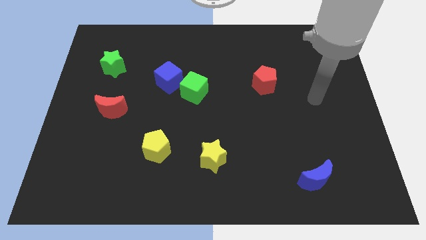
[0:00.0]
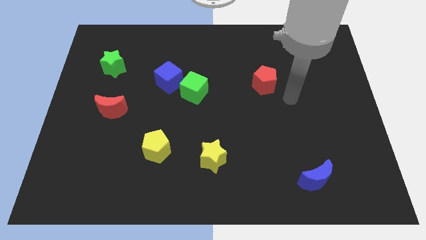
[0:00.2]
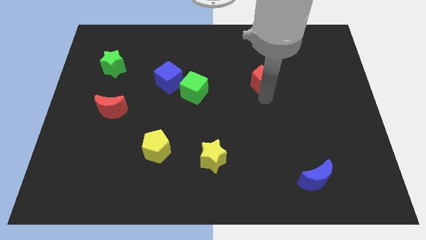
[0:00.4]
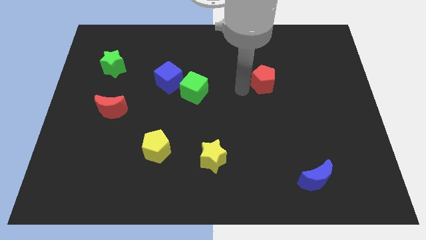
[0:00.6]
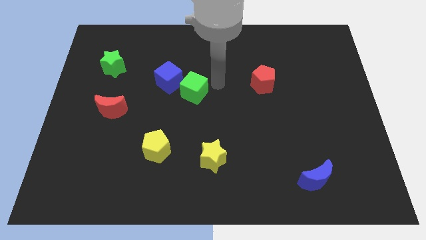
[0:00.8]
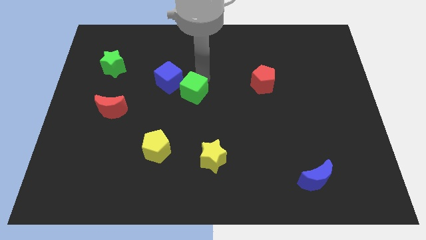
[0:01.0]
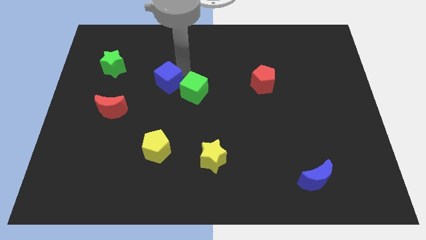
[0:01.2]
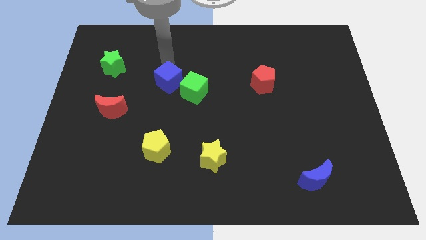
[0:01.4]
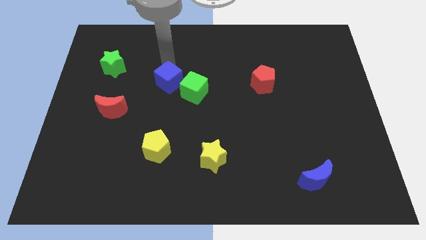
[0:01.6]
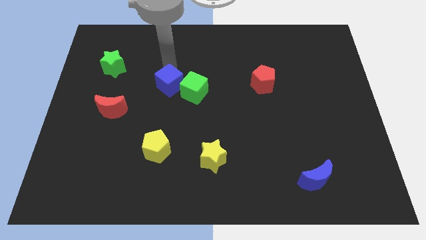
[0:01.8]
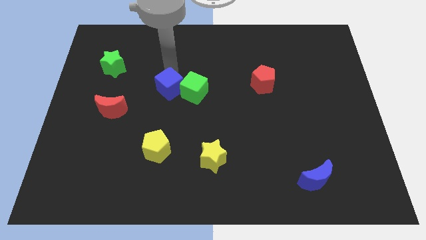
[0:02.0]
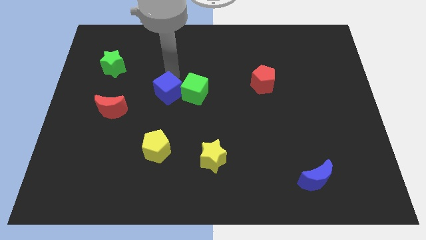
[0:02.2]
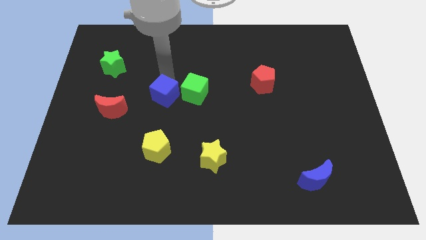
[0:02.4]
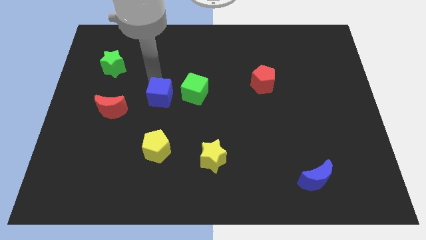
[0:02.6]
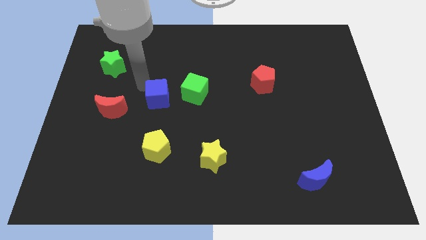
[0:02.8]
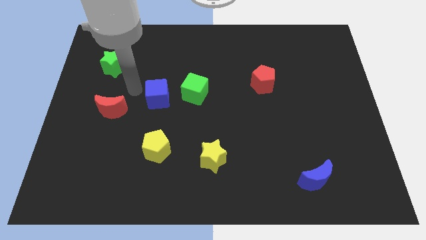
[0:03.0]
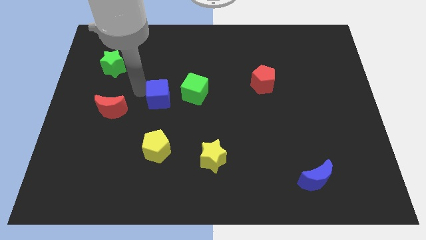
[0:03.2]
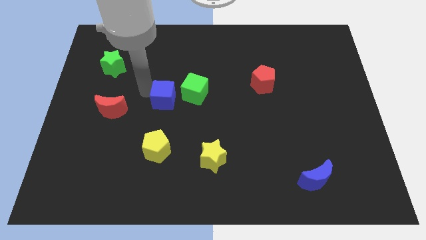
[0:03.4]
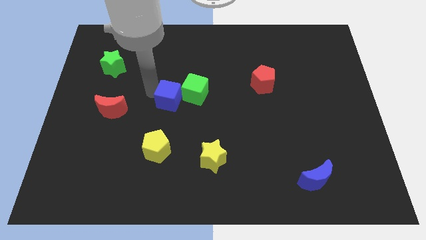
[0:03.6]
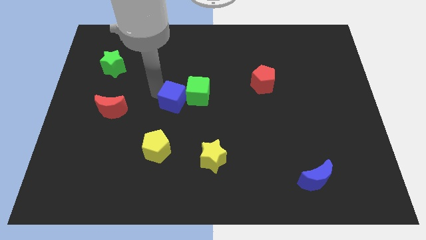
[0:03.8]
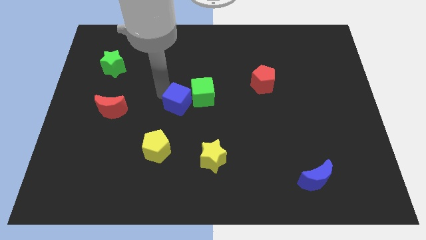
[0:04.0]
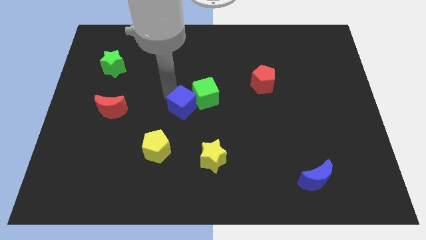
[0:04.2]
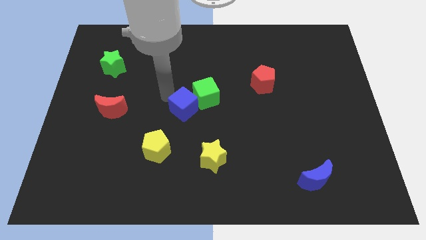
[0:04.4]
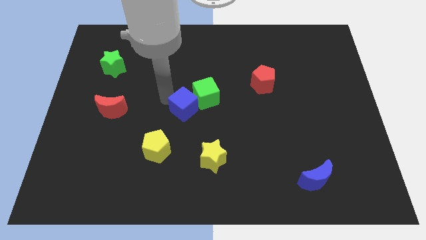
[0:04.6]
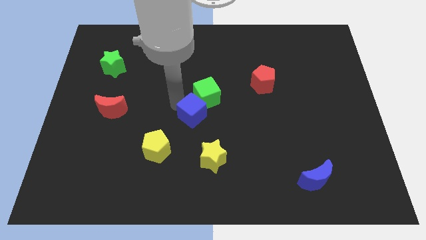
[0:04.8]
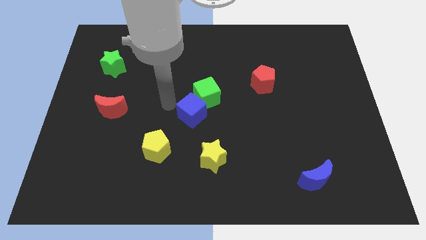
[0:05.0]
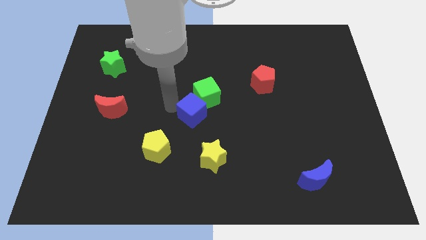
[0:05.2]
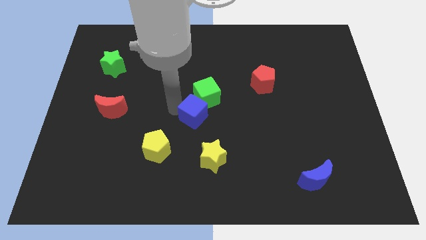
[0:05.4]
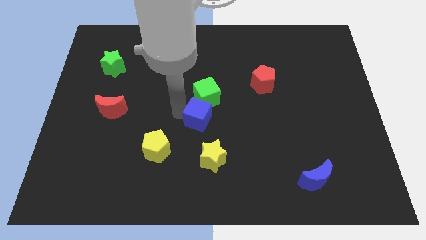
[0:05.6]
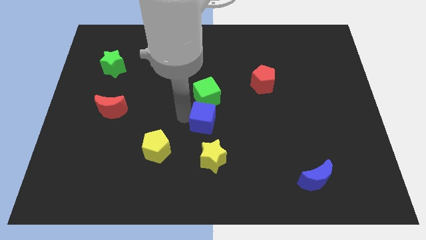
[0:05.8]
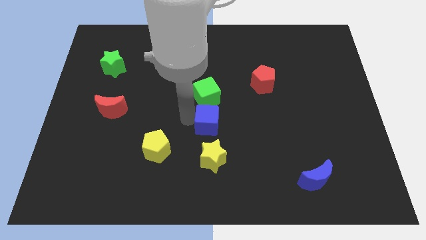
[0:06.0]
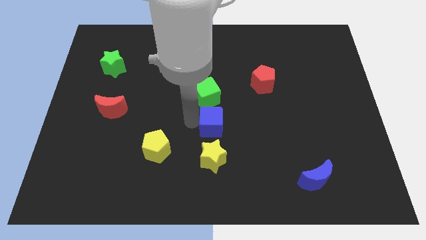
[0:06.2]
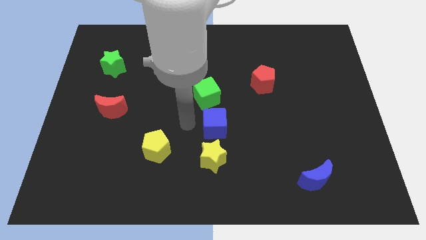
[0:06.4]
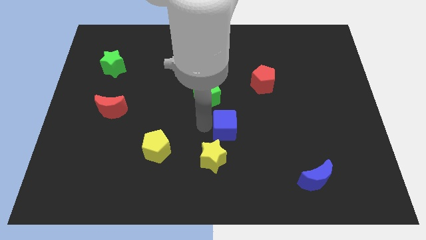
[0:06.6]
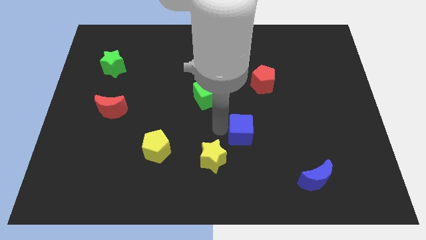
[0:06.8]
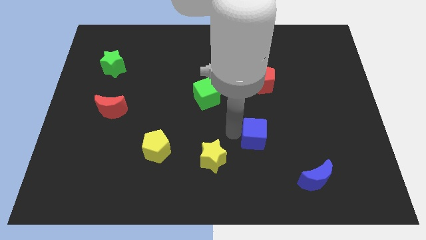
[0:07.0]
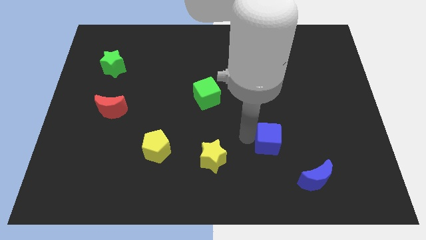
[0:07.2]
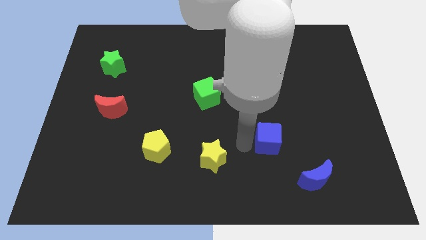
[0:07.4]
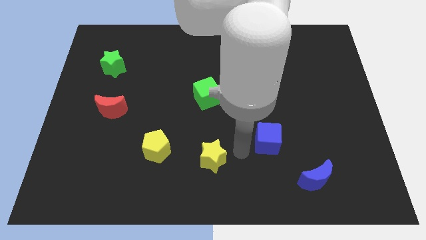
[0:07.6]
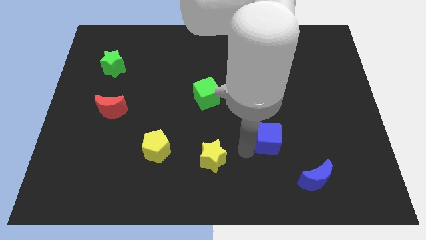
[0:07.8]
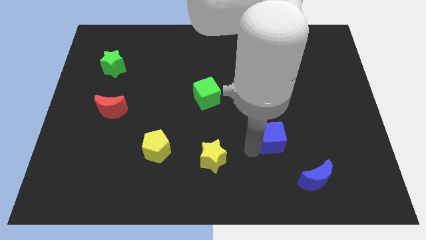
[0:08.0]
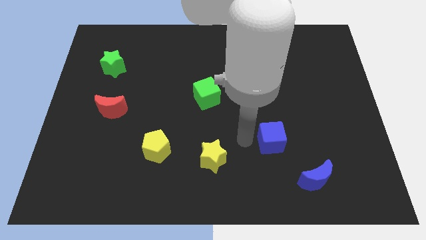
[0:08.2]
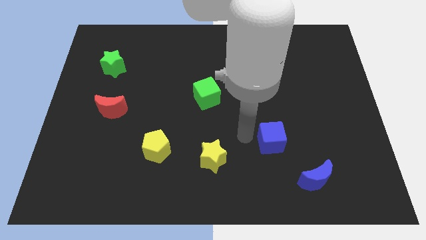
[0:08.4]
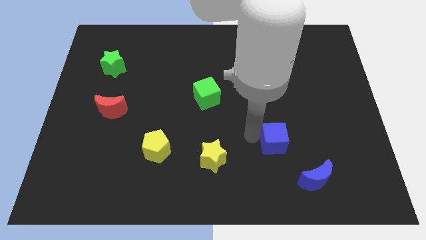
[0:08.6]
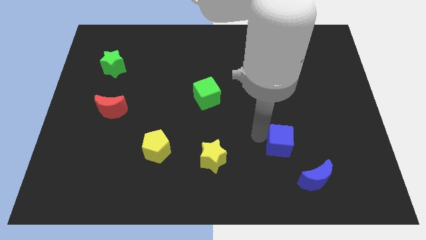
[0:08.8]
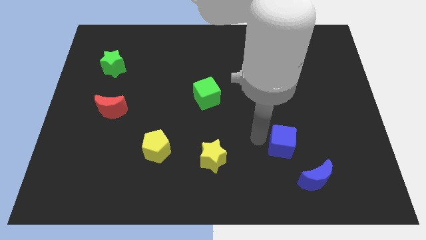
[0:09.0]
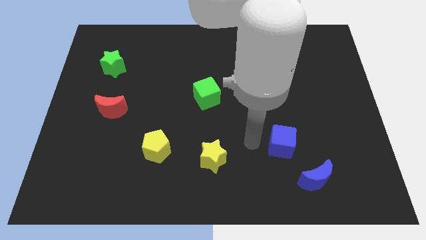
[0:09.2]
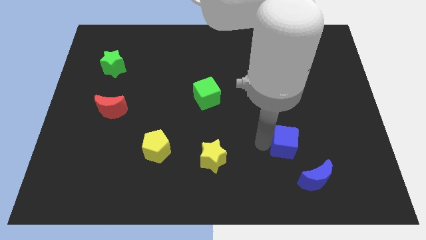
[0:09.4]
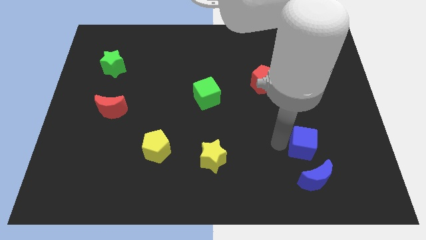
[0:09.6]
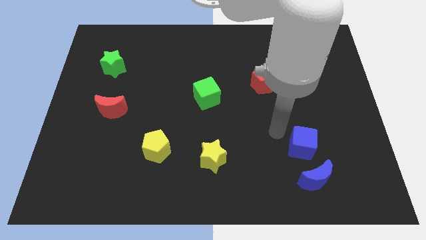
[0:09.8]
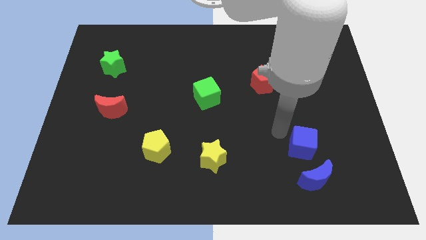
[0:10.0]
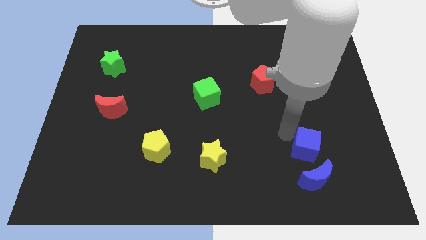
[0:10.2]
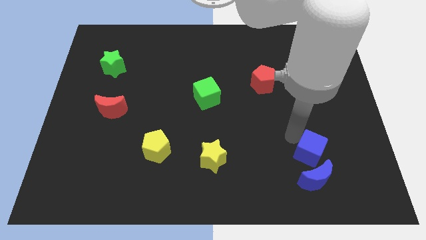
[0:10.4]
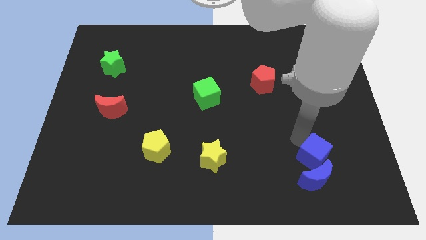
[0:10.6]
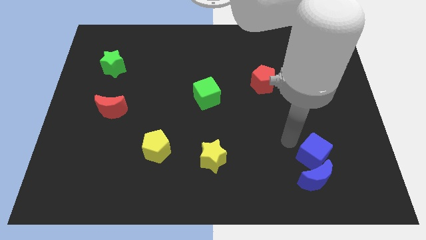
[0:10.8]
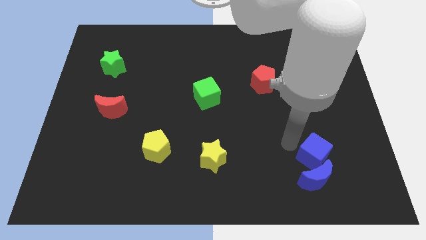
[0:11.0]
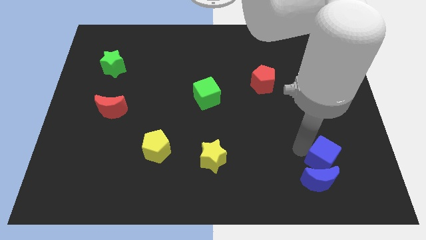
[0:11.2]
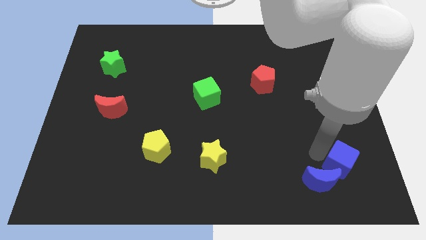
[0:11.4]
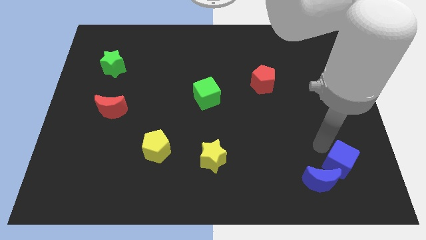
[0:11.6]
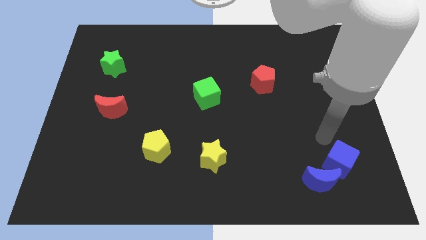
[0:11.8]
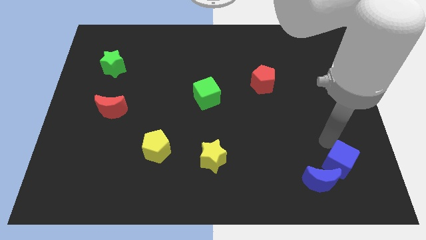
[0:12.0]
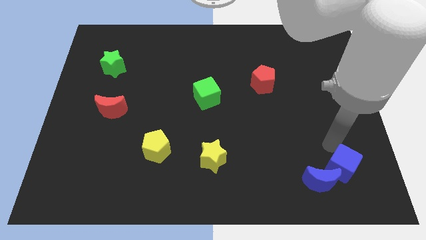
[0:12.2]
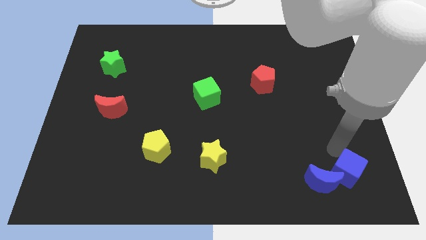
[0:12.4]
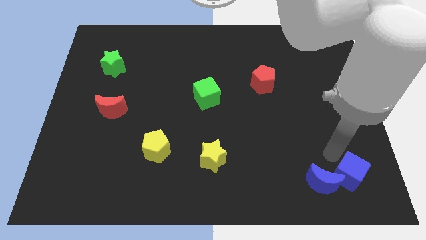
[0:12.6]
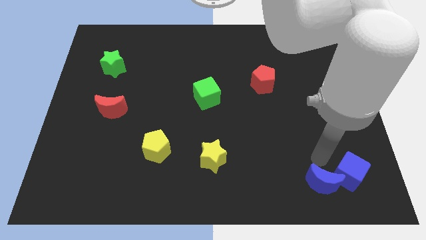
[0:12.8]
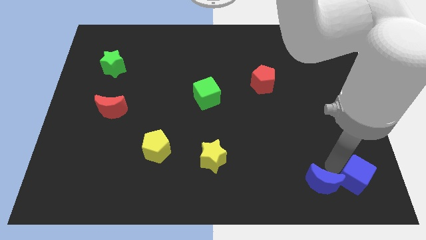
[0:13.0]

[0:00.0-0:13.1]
move the blue cube to the bottom right

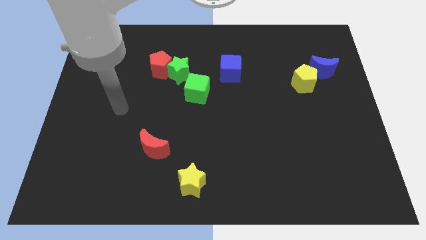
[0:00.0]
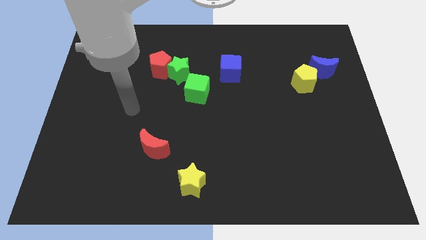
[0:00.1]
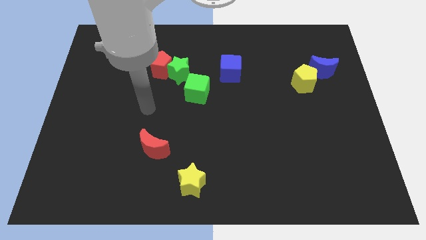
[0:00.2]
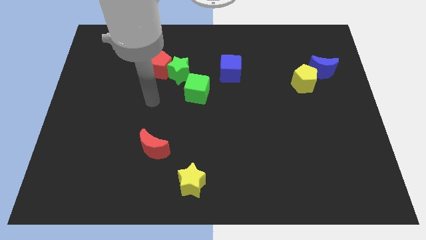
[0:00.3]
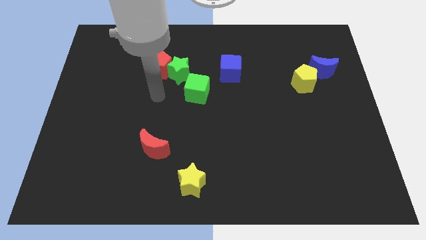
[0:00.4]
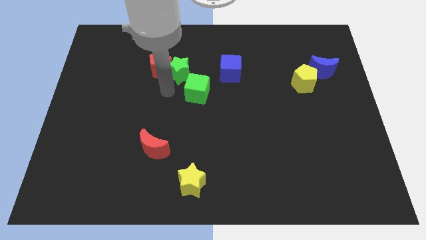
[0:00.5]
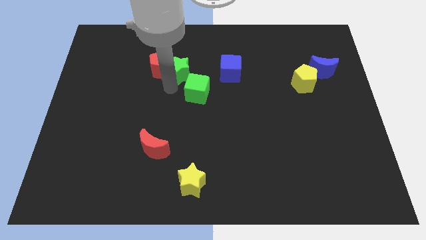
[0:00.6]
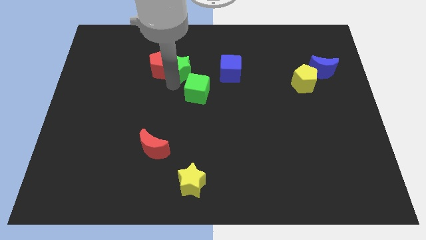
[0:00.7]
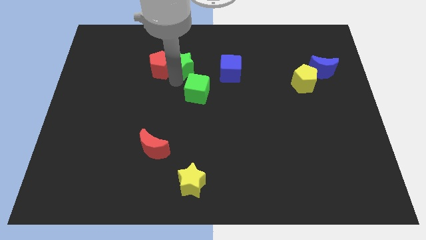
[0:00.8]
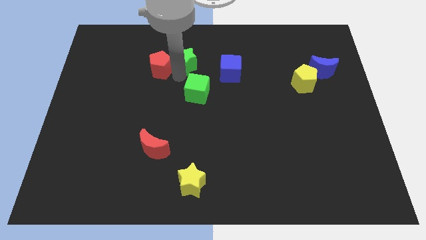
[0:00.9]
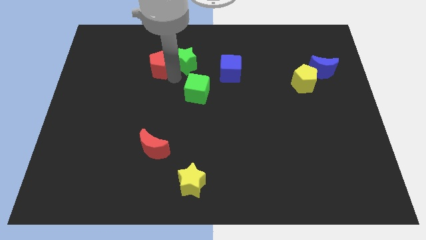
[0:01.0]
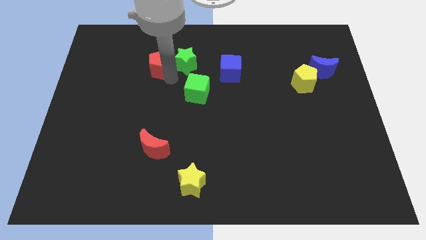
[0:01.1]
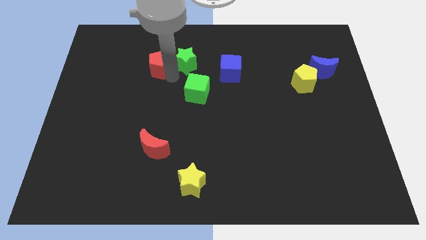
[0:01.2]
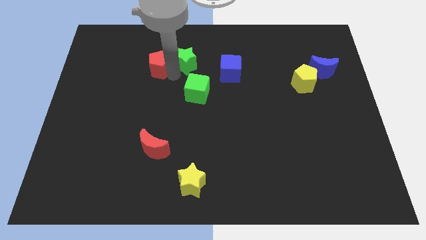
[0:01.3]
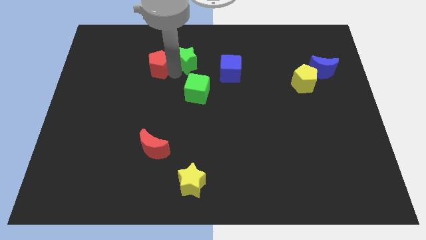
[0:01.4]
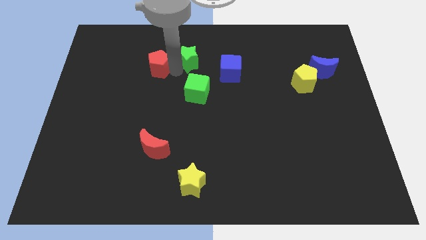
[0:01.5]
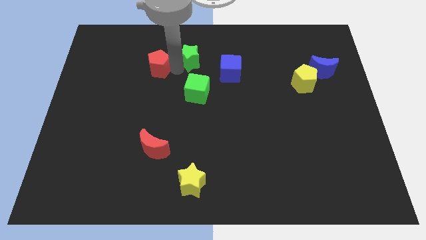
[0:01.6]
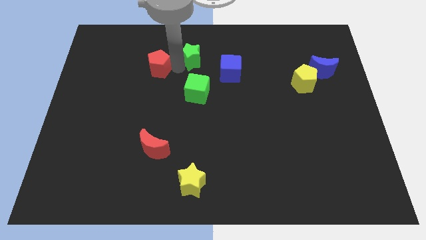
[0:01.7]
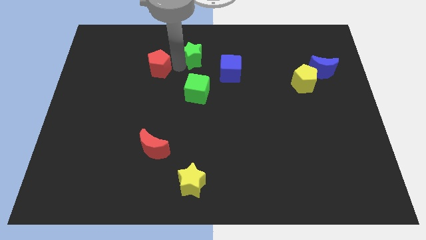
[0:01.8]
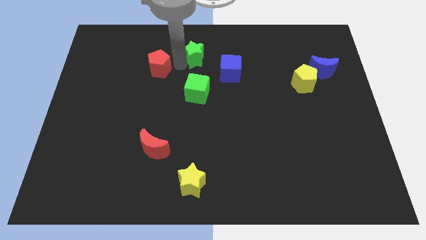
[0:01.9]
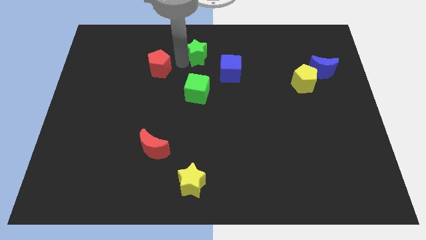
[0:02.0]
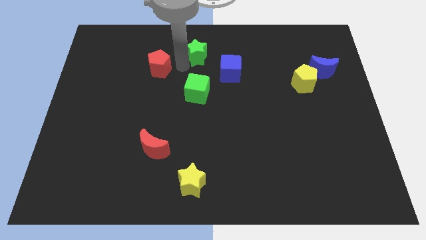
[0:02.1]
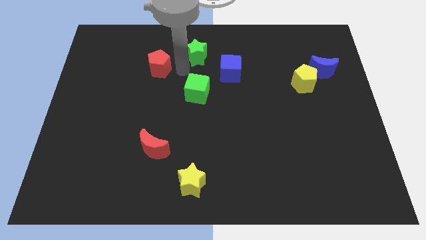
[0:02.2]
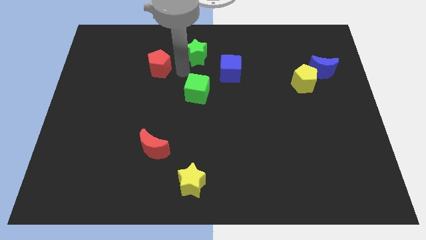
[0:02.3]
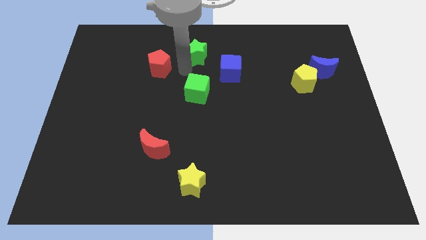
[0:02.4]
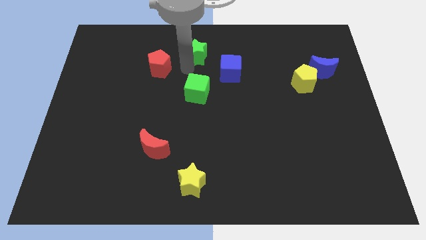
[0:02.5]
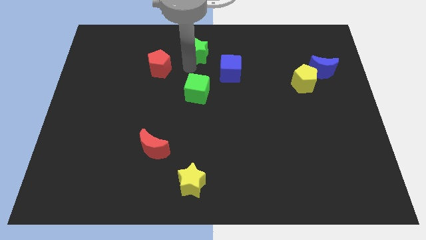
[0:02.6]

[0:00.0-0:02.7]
push the green star to the towards your base
